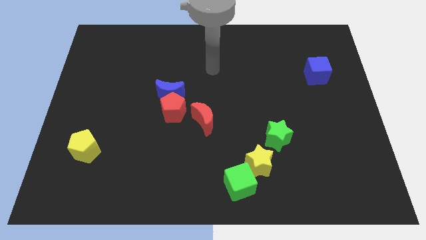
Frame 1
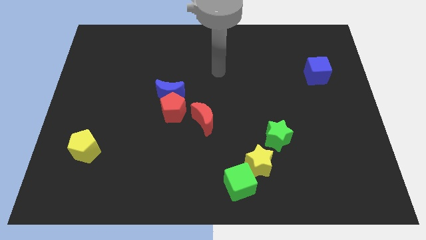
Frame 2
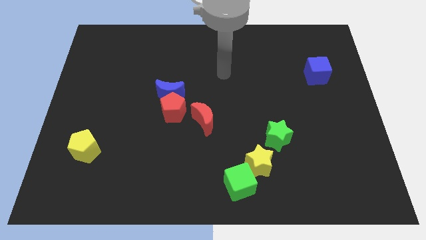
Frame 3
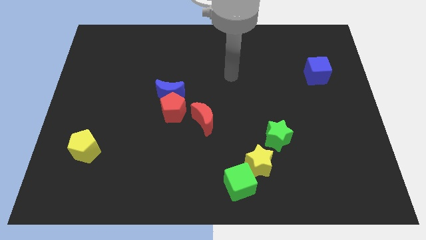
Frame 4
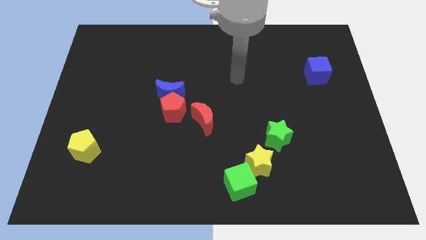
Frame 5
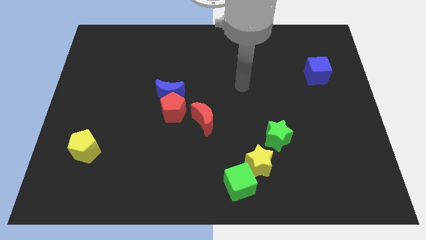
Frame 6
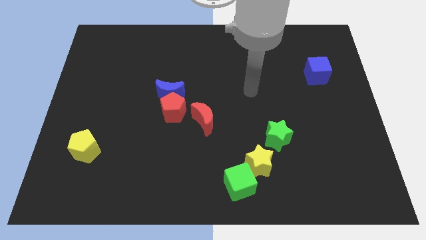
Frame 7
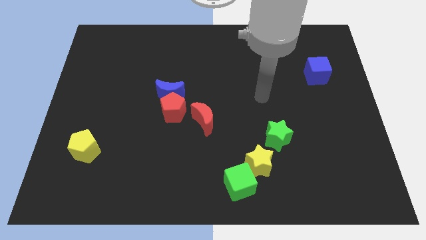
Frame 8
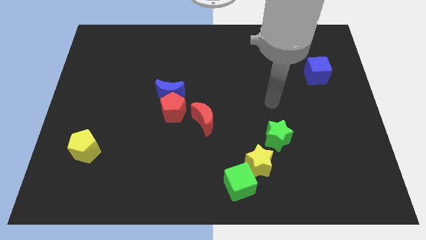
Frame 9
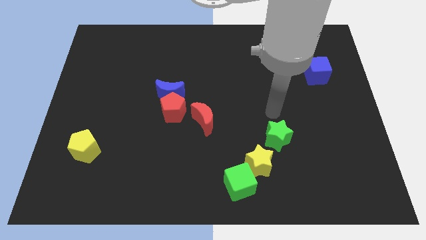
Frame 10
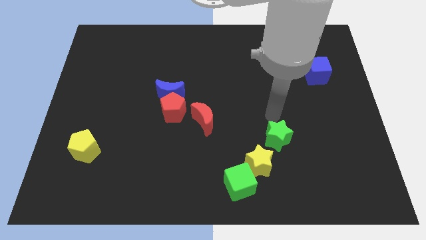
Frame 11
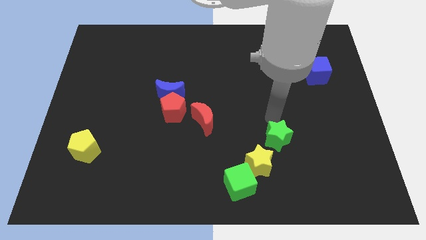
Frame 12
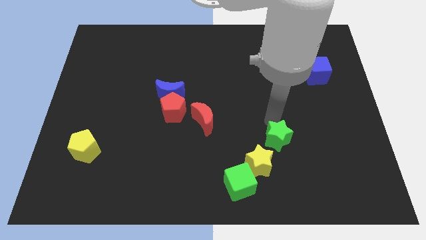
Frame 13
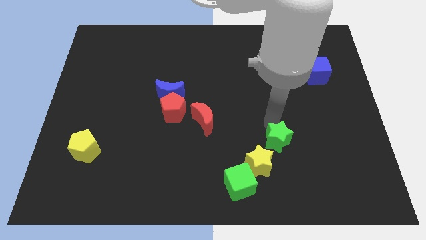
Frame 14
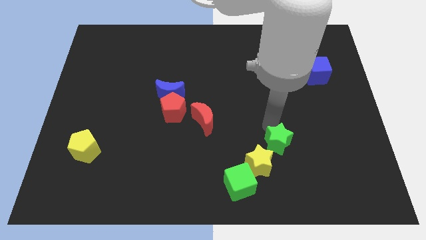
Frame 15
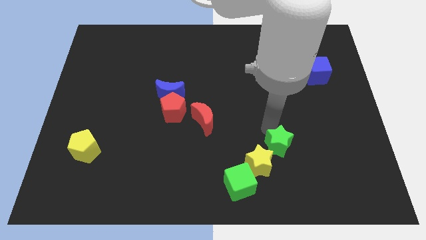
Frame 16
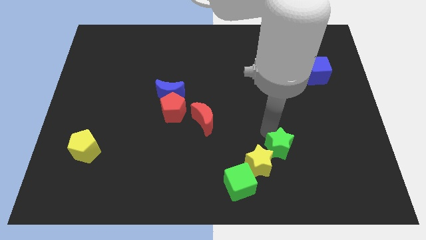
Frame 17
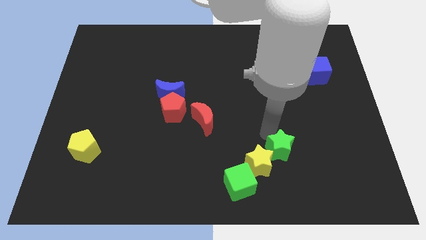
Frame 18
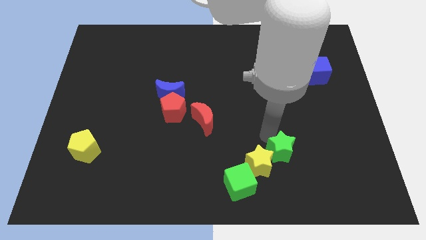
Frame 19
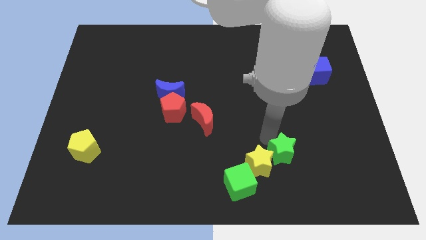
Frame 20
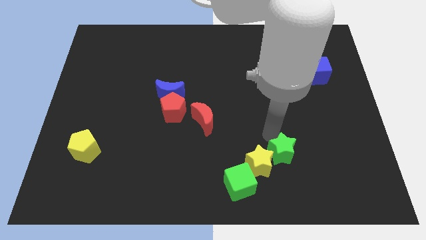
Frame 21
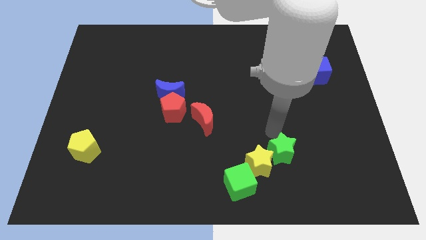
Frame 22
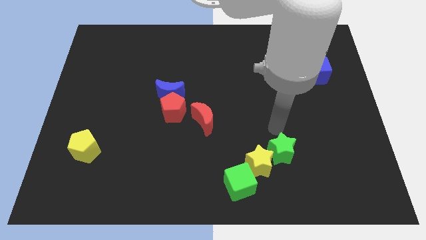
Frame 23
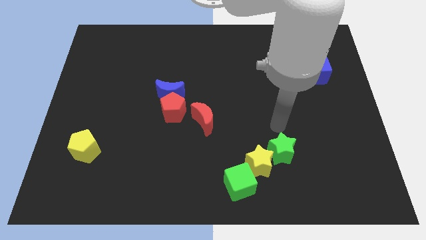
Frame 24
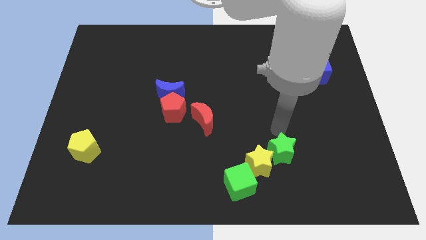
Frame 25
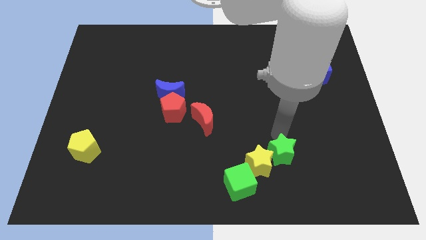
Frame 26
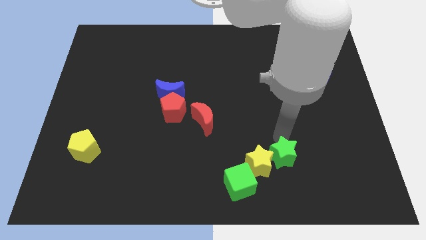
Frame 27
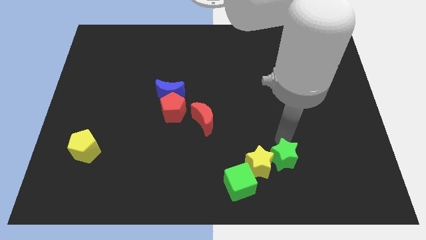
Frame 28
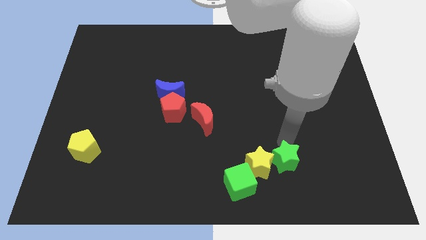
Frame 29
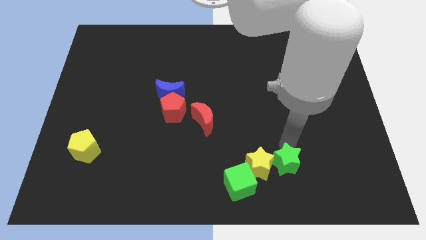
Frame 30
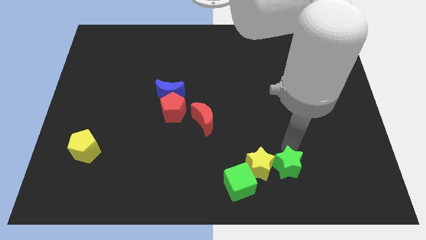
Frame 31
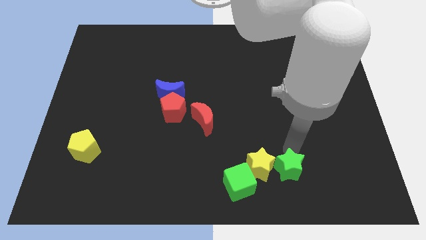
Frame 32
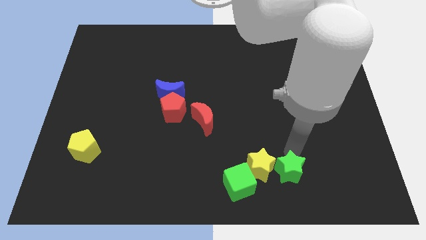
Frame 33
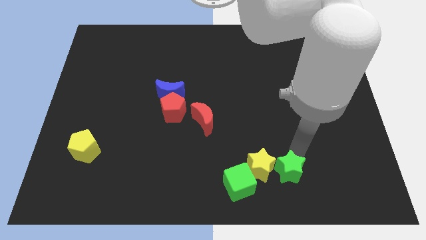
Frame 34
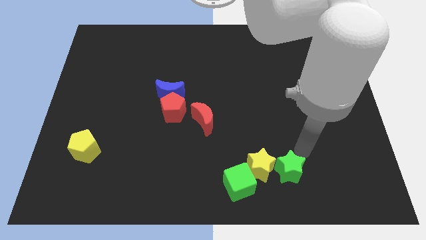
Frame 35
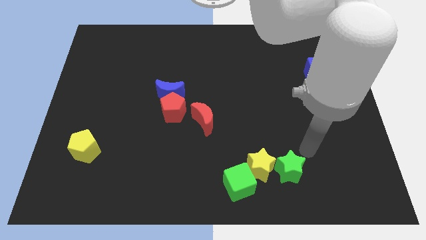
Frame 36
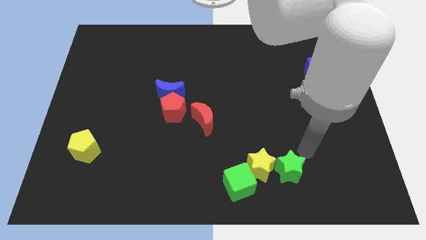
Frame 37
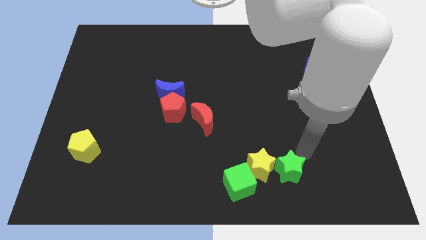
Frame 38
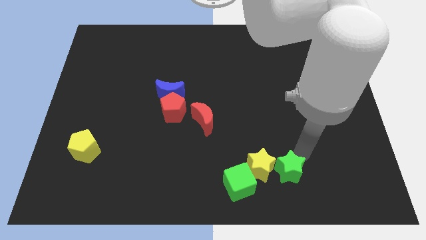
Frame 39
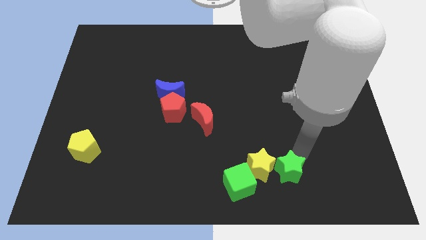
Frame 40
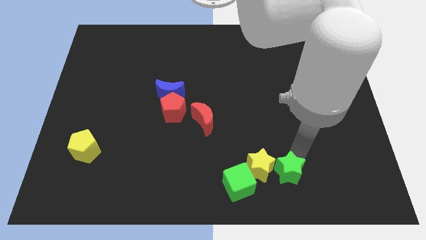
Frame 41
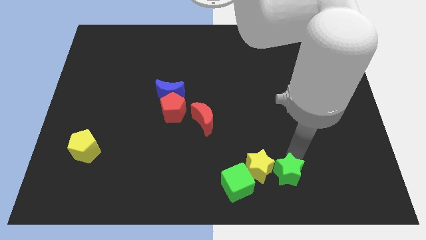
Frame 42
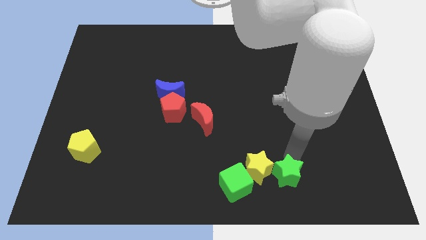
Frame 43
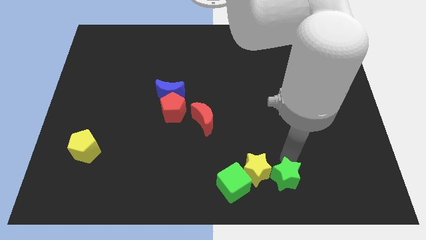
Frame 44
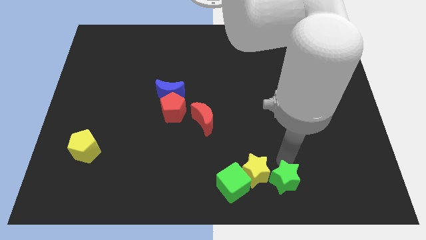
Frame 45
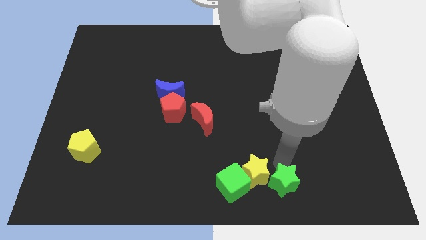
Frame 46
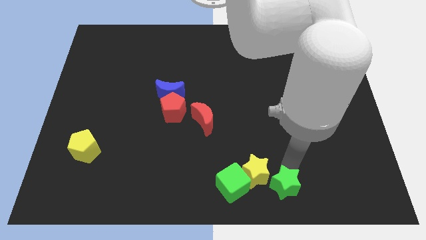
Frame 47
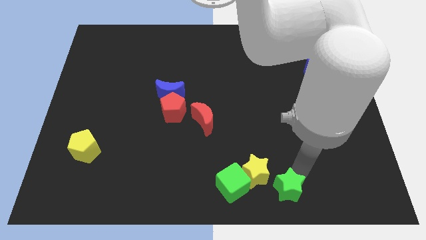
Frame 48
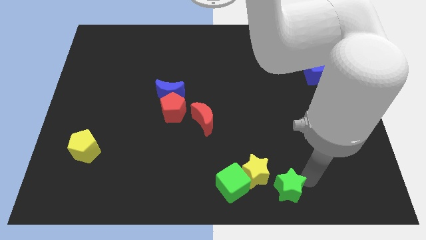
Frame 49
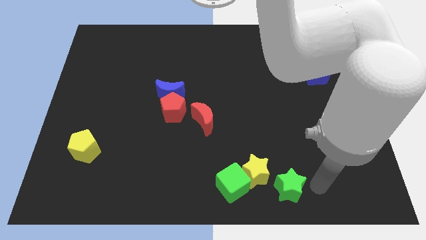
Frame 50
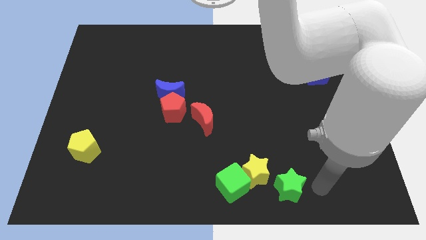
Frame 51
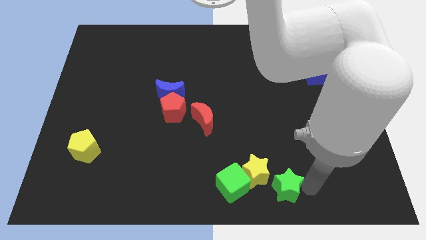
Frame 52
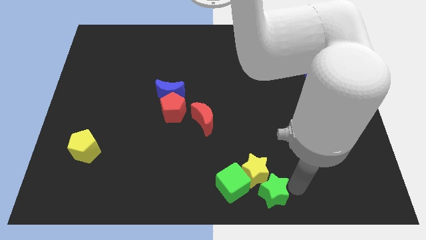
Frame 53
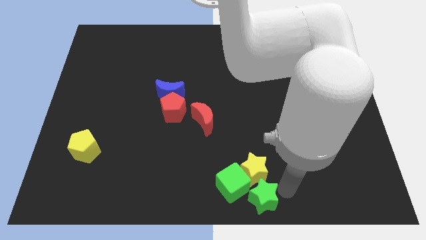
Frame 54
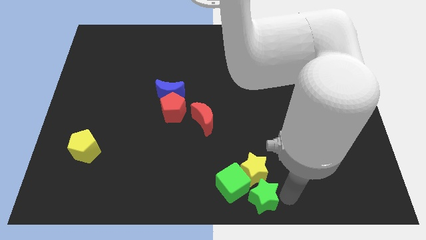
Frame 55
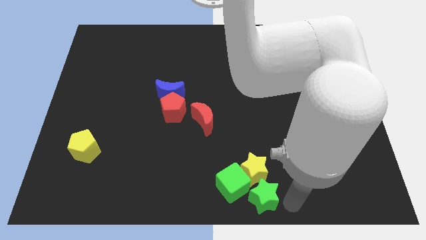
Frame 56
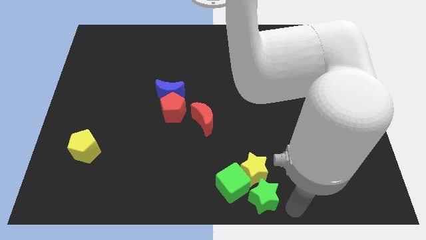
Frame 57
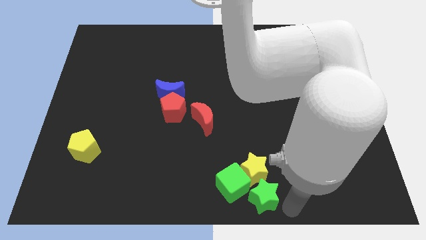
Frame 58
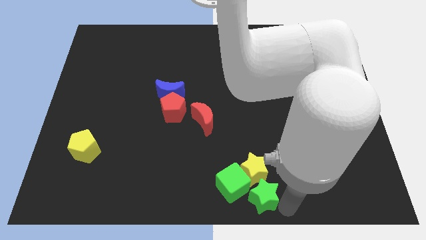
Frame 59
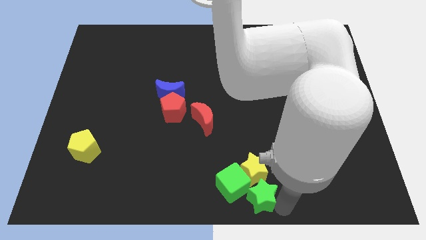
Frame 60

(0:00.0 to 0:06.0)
put the green star towards the green cube

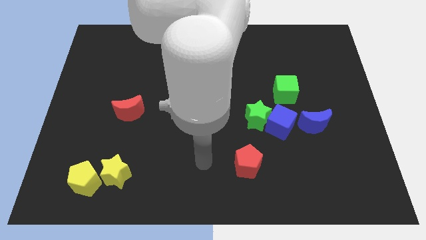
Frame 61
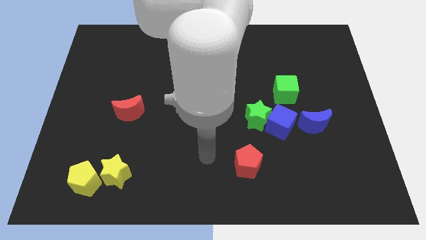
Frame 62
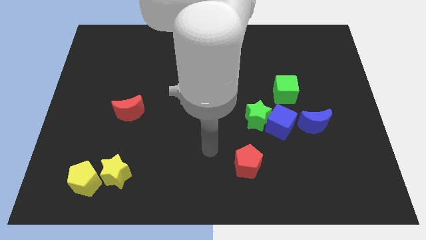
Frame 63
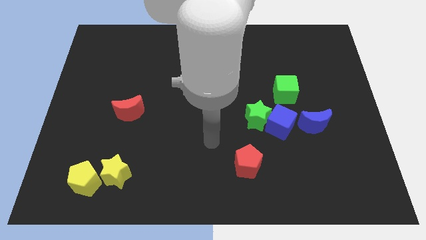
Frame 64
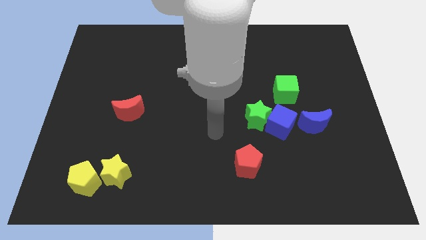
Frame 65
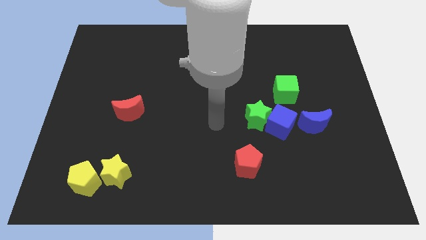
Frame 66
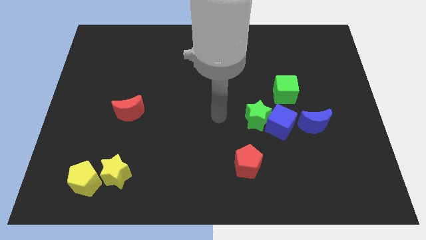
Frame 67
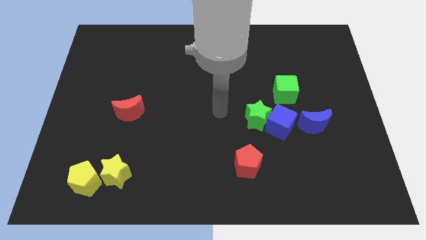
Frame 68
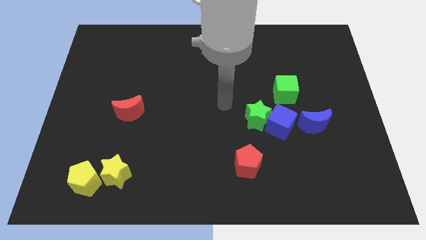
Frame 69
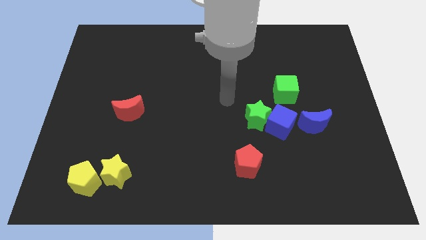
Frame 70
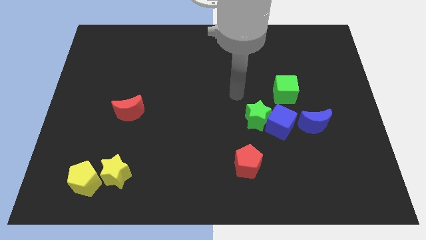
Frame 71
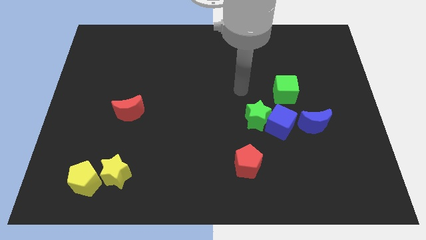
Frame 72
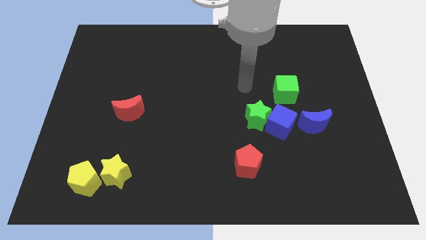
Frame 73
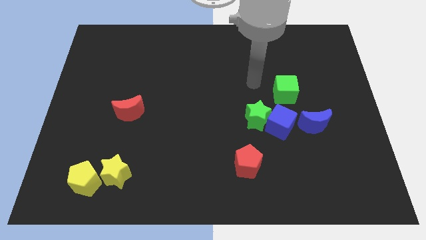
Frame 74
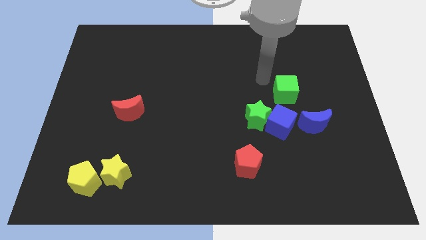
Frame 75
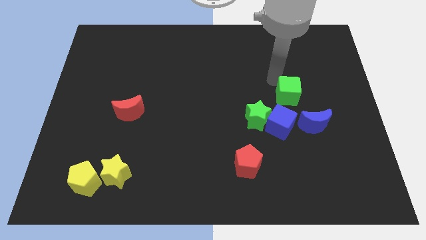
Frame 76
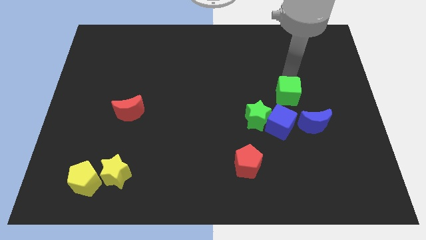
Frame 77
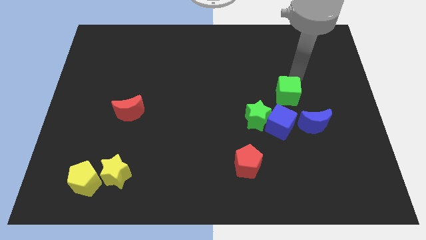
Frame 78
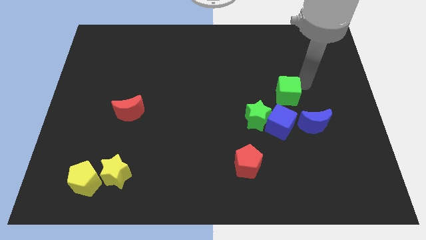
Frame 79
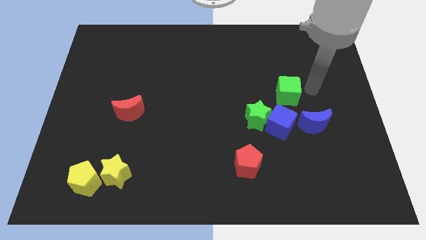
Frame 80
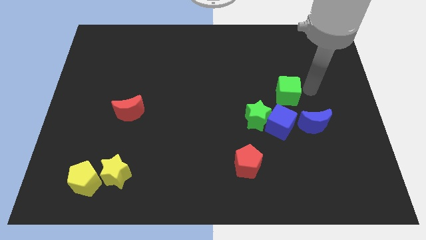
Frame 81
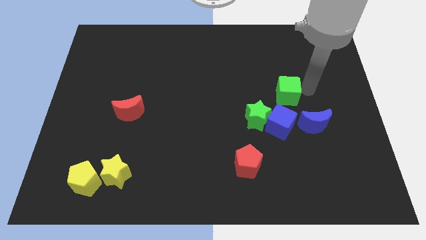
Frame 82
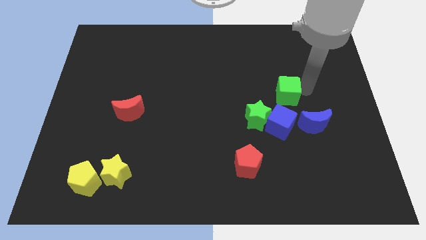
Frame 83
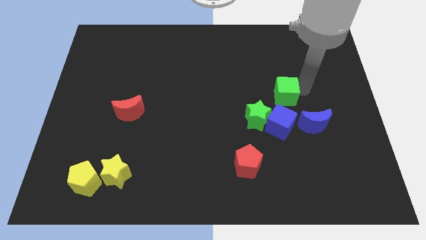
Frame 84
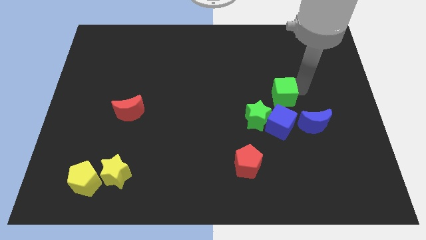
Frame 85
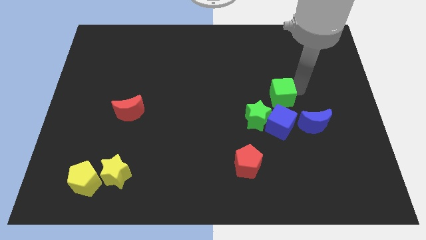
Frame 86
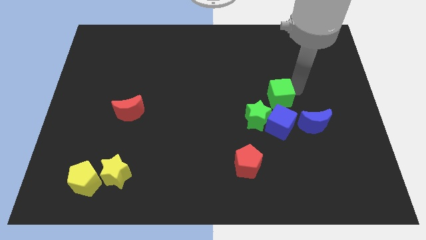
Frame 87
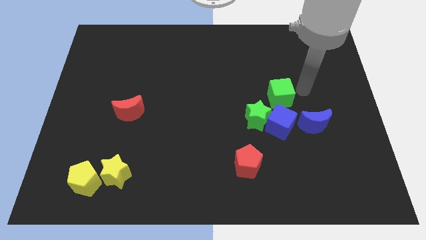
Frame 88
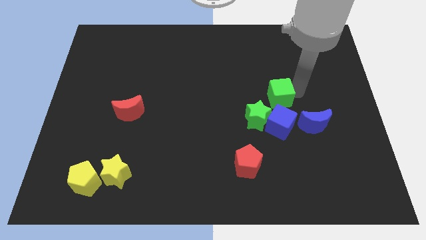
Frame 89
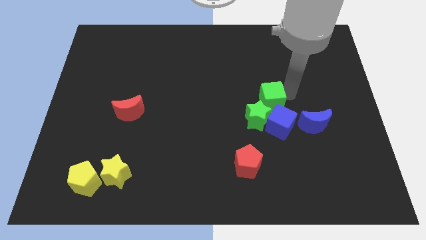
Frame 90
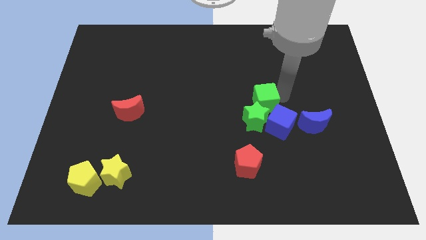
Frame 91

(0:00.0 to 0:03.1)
put the green cube towards the green star
